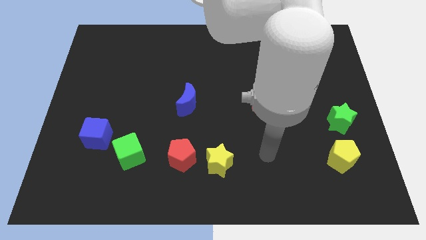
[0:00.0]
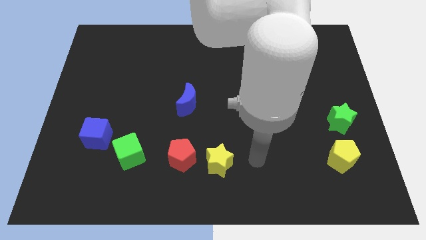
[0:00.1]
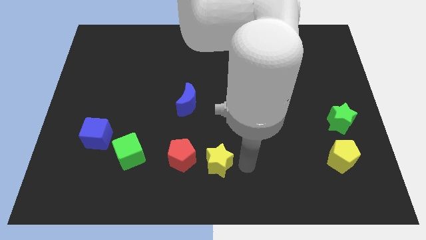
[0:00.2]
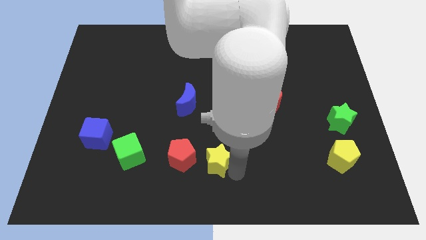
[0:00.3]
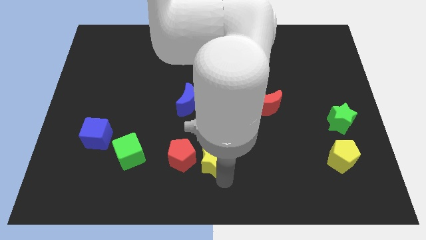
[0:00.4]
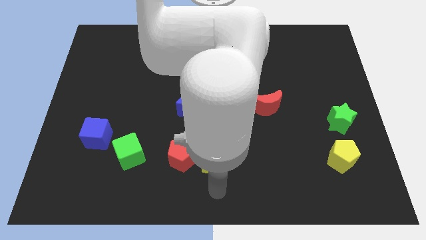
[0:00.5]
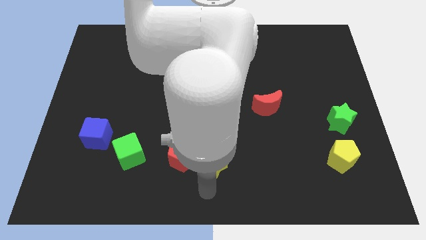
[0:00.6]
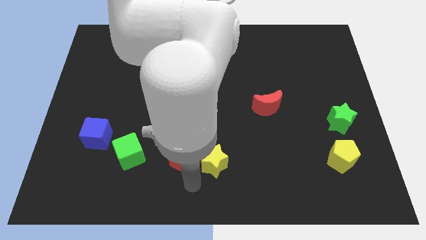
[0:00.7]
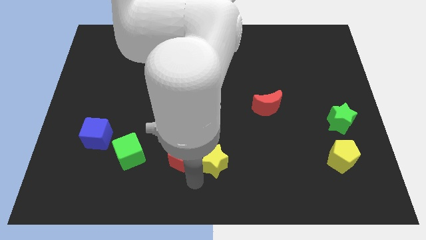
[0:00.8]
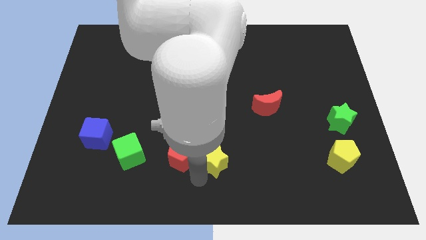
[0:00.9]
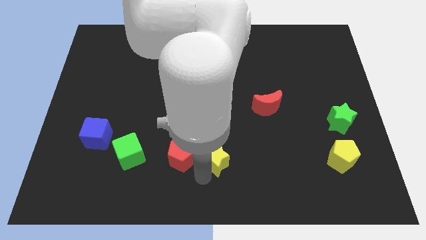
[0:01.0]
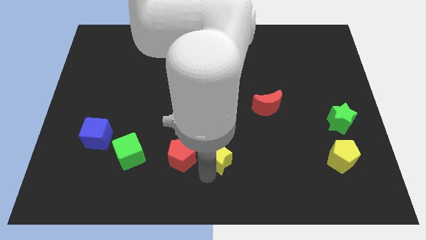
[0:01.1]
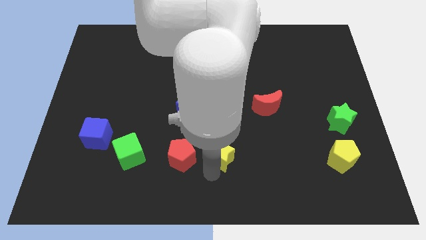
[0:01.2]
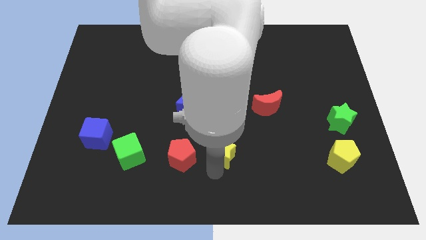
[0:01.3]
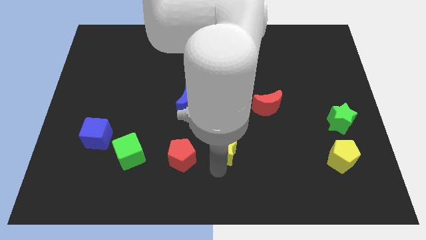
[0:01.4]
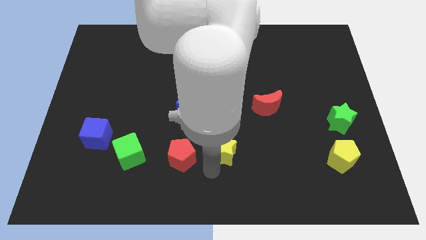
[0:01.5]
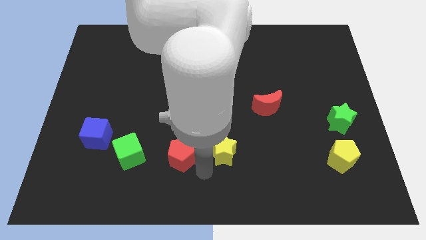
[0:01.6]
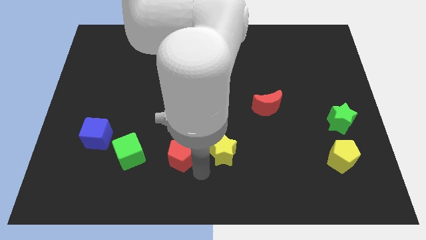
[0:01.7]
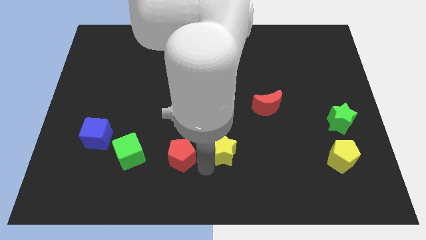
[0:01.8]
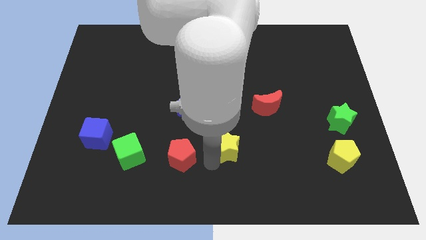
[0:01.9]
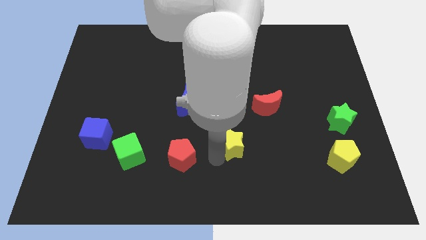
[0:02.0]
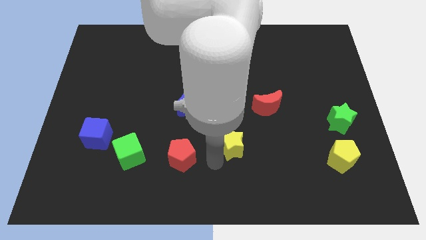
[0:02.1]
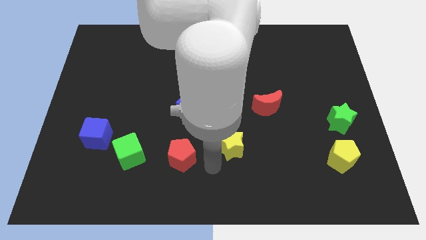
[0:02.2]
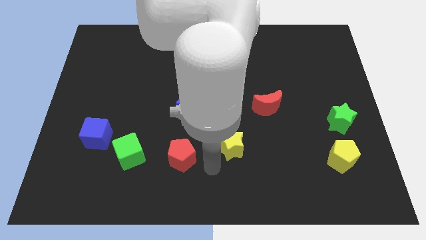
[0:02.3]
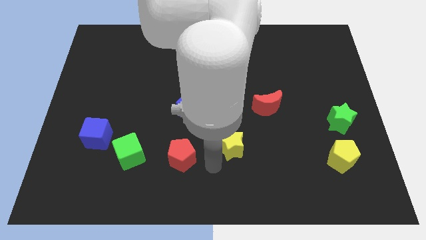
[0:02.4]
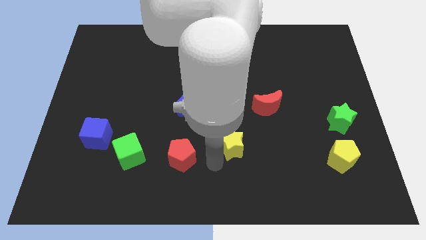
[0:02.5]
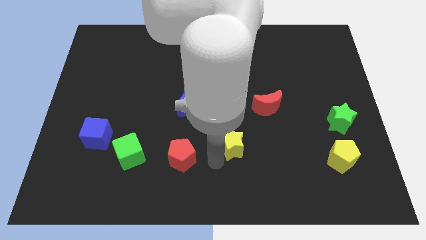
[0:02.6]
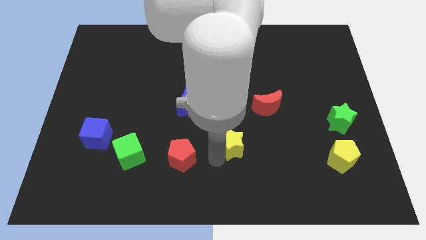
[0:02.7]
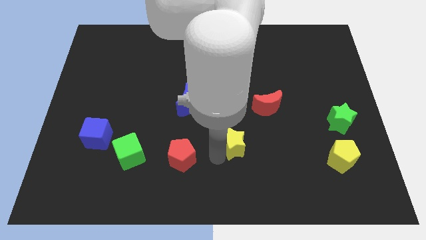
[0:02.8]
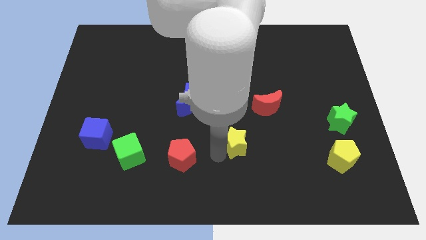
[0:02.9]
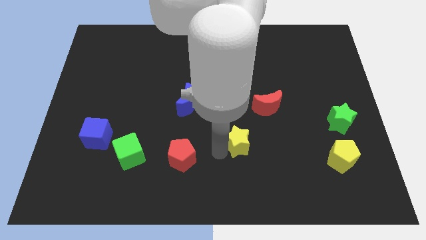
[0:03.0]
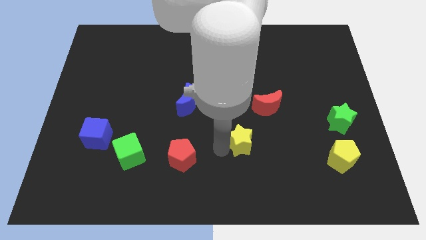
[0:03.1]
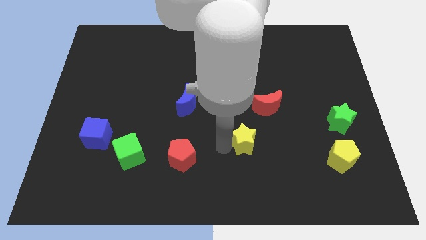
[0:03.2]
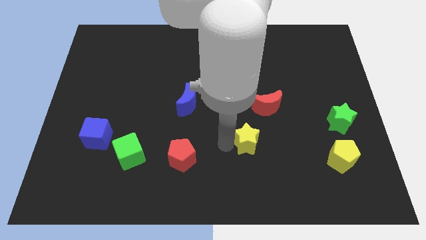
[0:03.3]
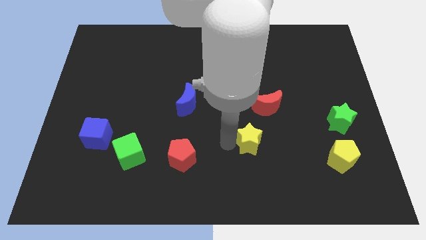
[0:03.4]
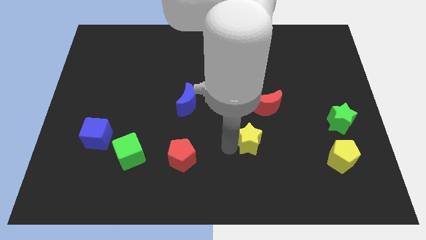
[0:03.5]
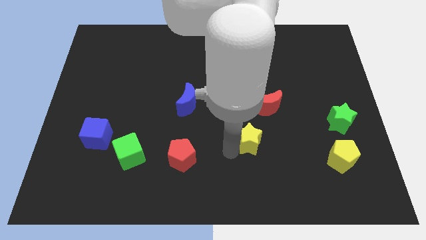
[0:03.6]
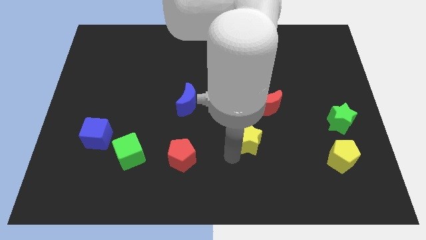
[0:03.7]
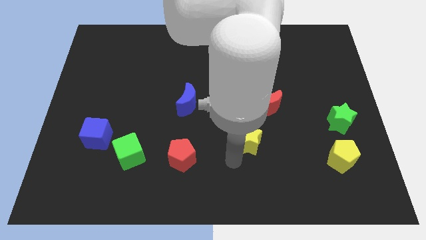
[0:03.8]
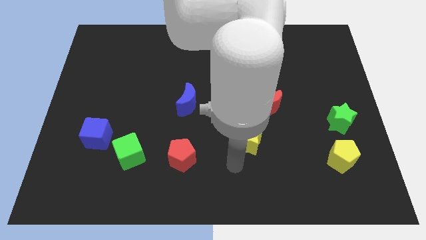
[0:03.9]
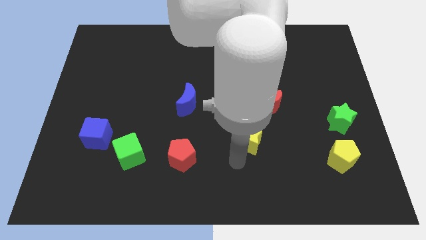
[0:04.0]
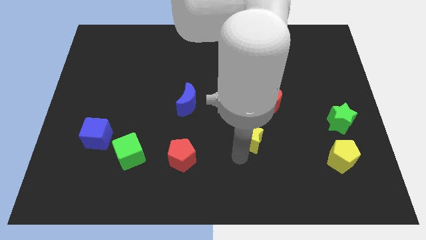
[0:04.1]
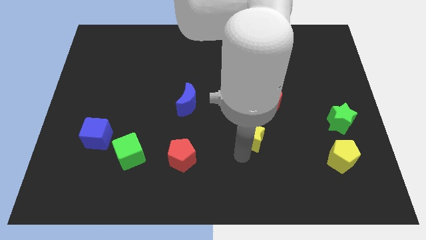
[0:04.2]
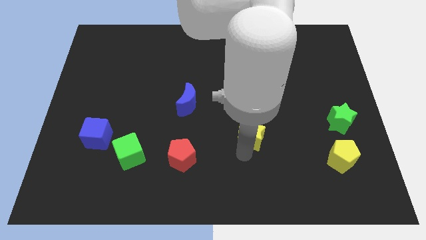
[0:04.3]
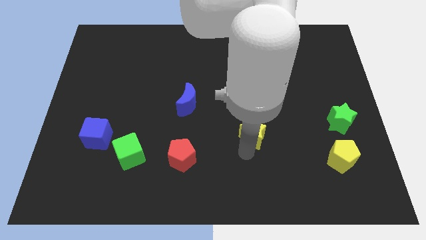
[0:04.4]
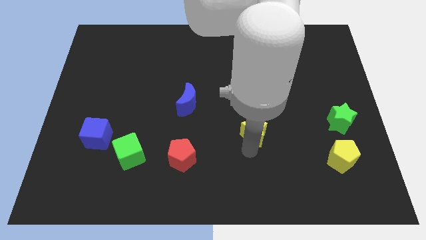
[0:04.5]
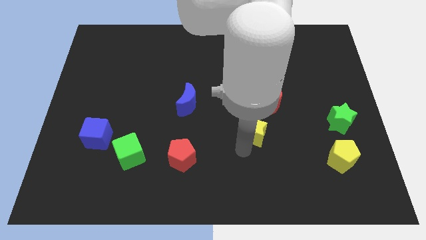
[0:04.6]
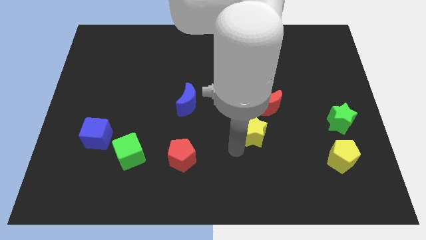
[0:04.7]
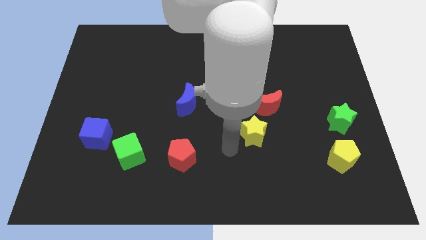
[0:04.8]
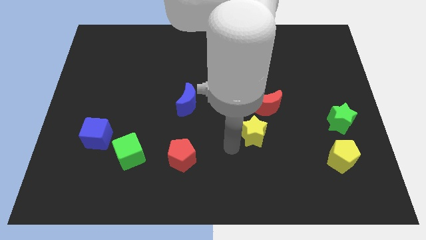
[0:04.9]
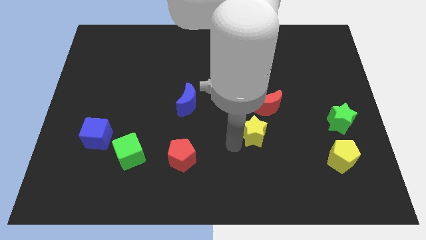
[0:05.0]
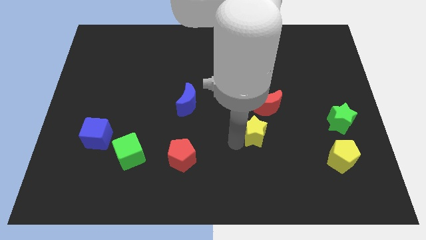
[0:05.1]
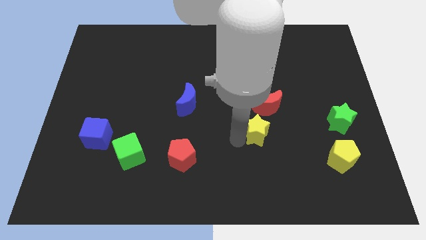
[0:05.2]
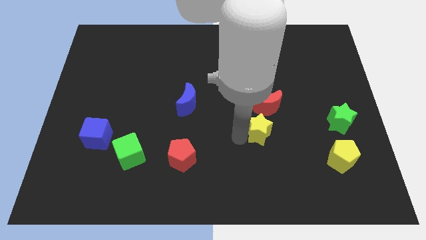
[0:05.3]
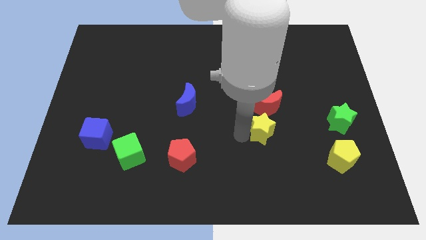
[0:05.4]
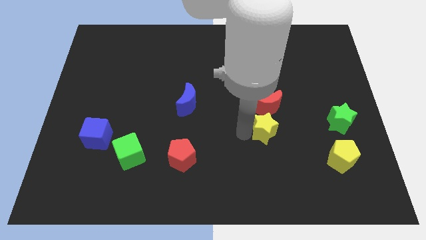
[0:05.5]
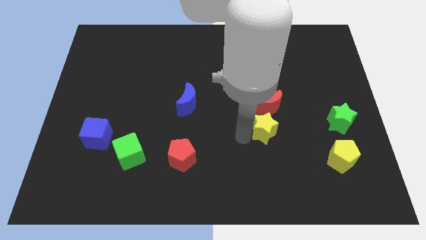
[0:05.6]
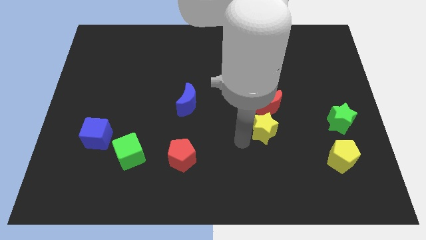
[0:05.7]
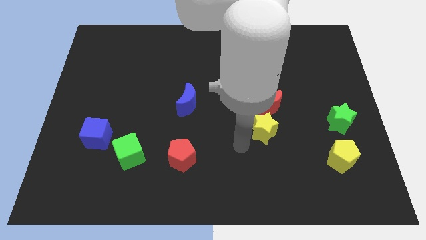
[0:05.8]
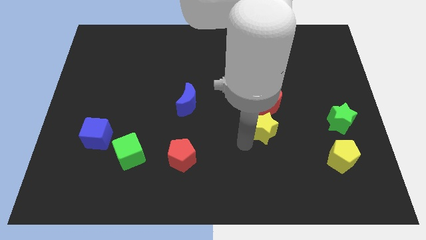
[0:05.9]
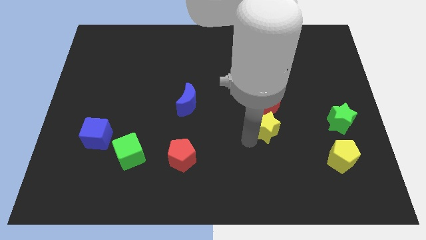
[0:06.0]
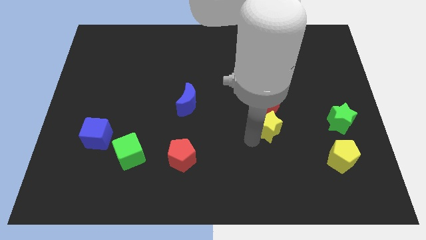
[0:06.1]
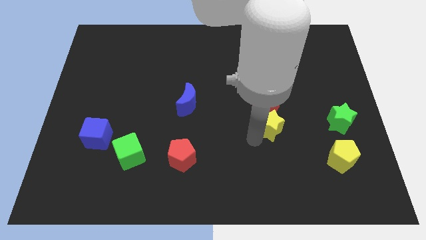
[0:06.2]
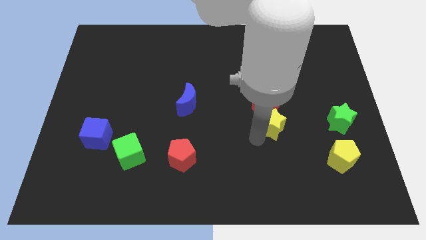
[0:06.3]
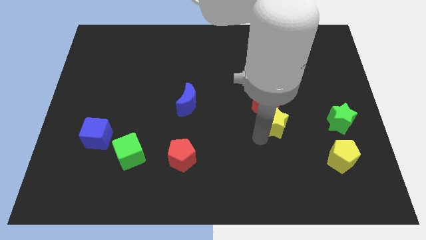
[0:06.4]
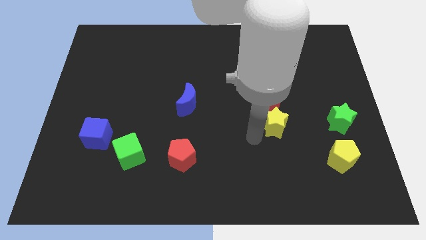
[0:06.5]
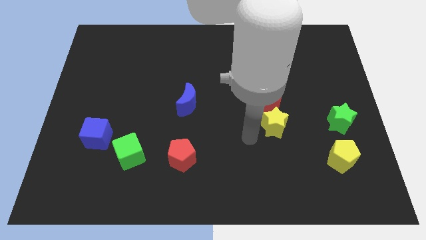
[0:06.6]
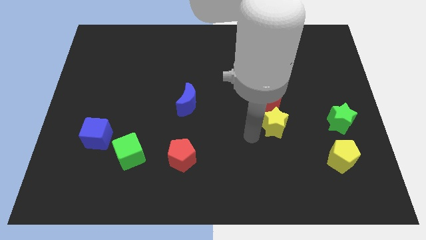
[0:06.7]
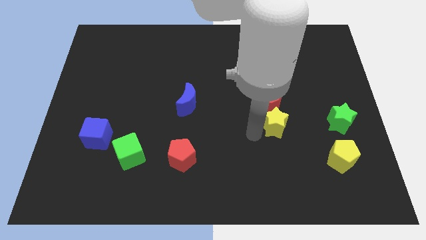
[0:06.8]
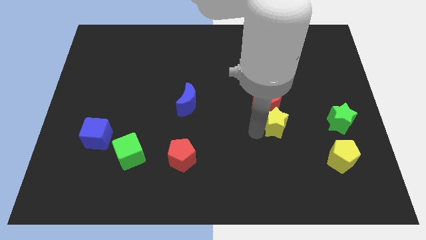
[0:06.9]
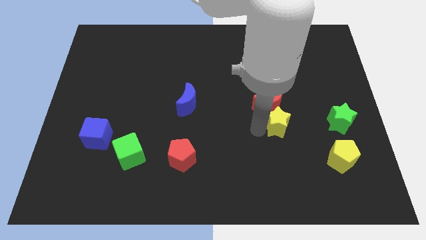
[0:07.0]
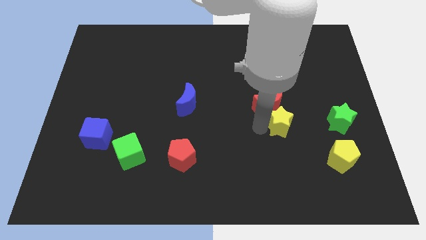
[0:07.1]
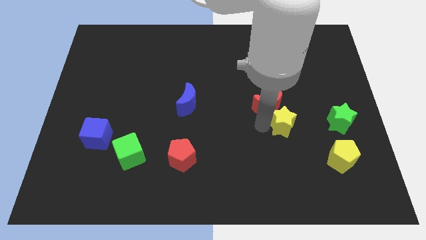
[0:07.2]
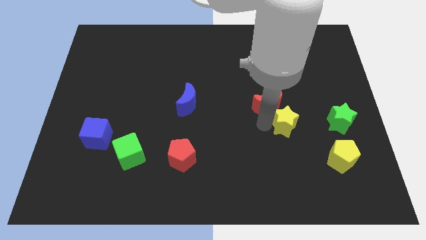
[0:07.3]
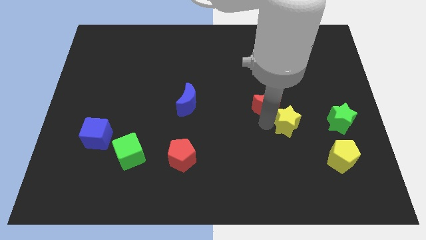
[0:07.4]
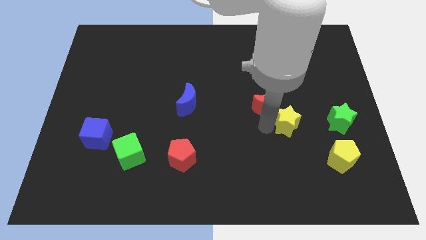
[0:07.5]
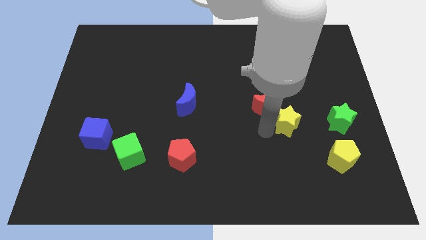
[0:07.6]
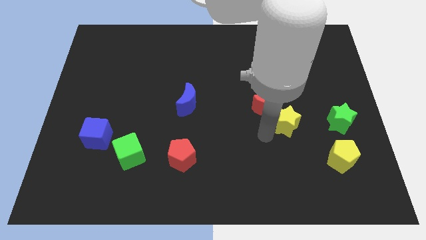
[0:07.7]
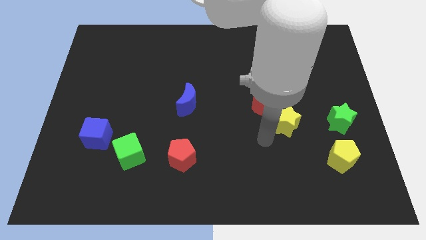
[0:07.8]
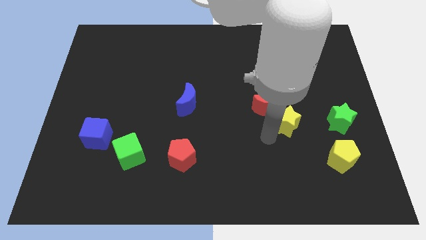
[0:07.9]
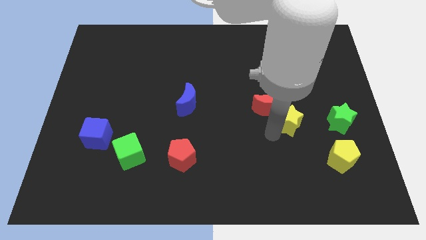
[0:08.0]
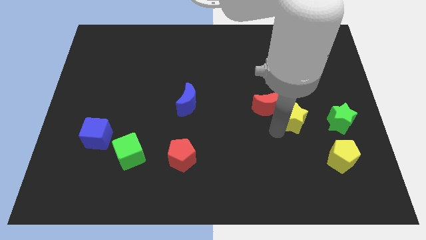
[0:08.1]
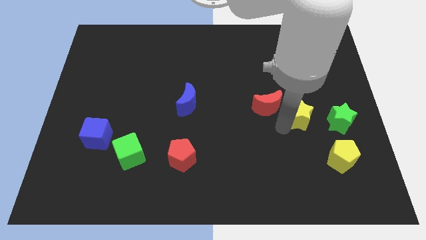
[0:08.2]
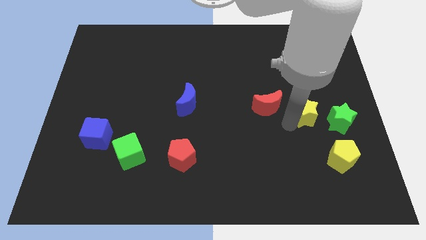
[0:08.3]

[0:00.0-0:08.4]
slide the yellow star to the top left side of the green star
